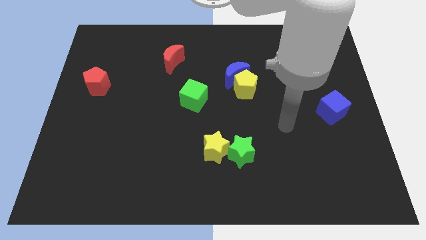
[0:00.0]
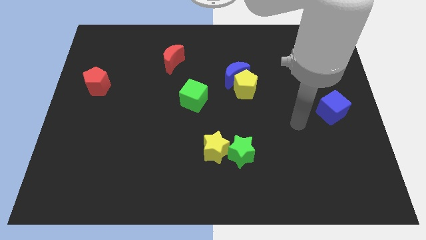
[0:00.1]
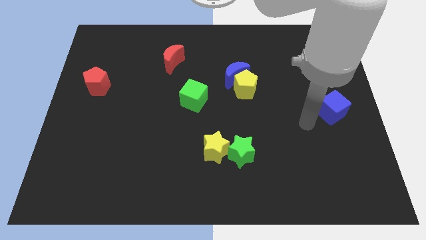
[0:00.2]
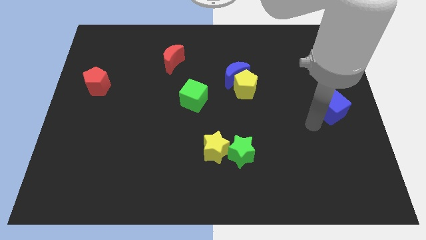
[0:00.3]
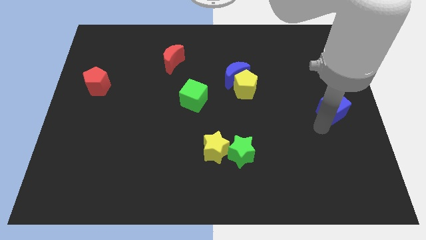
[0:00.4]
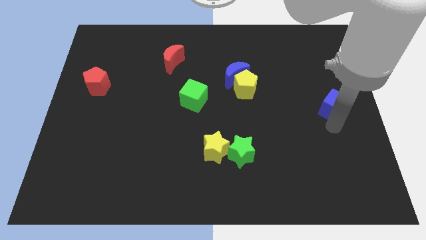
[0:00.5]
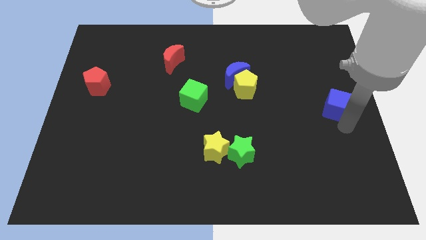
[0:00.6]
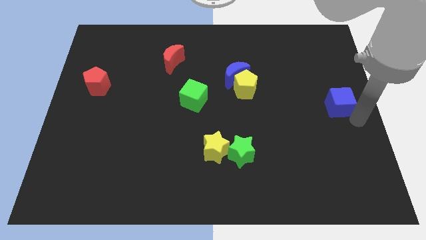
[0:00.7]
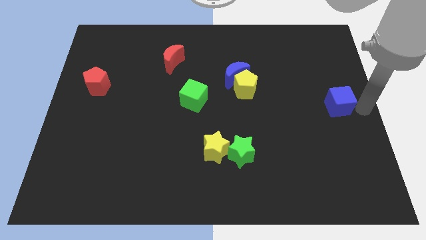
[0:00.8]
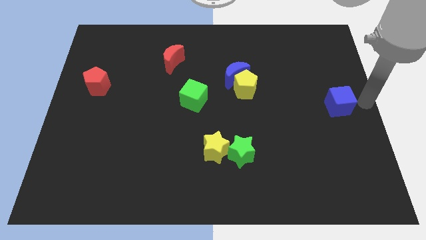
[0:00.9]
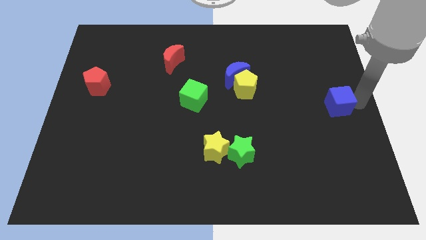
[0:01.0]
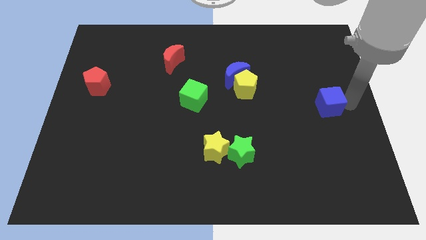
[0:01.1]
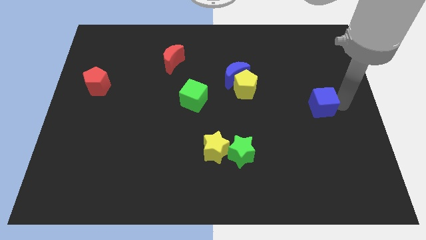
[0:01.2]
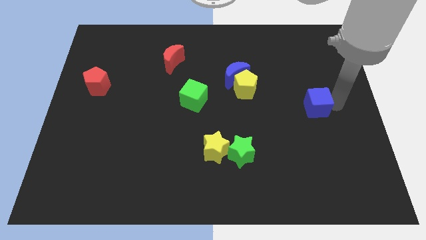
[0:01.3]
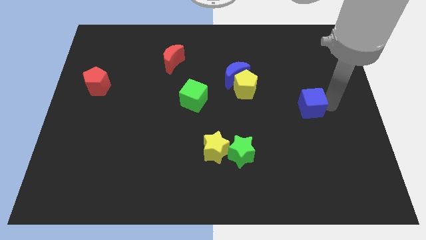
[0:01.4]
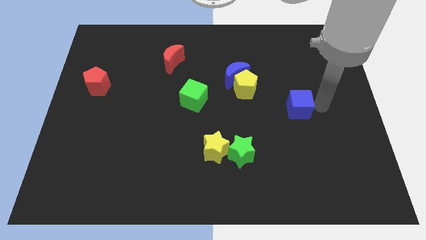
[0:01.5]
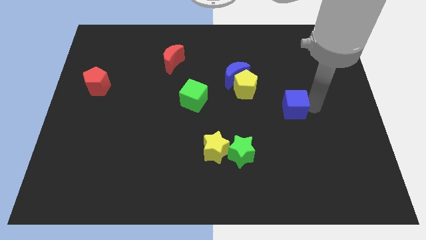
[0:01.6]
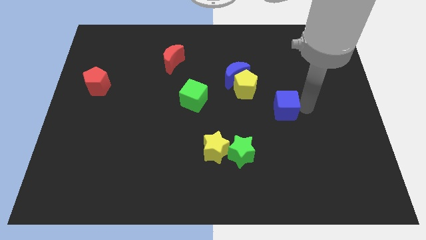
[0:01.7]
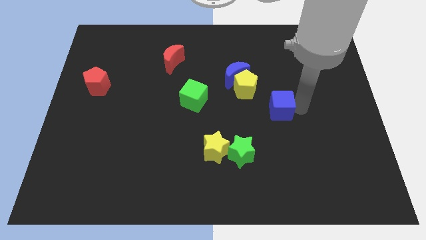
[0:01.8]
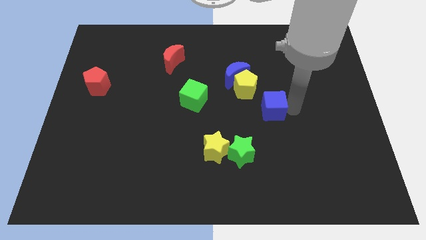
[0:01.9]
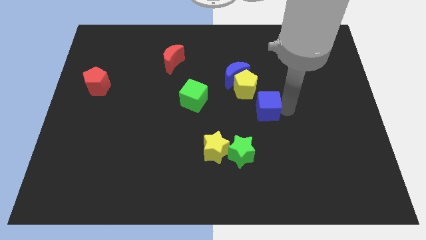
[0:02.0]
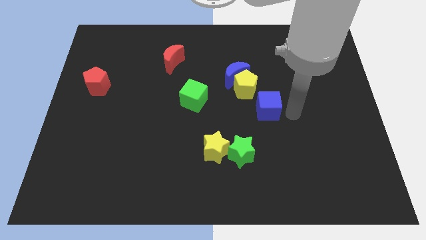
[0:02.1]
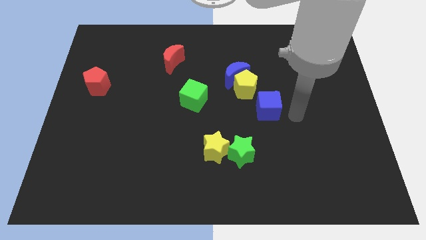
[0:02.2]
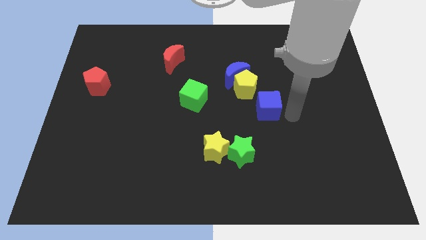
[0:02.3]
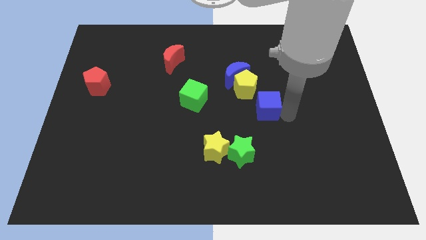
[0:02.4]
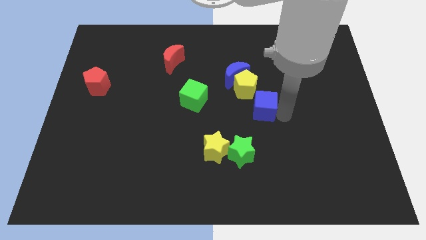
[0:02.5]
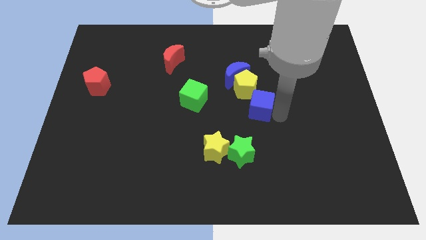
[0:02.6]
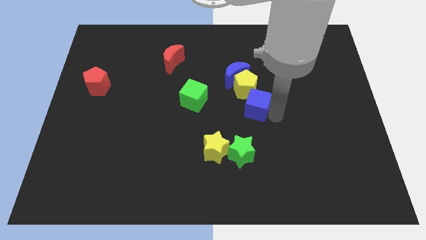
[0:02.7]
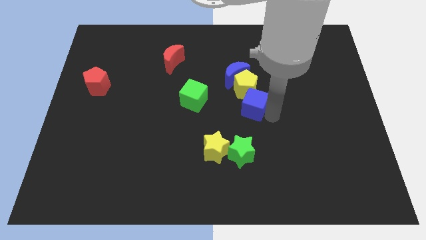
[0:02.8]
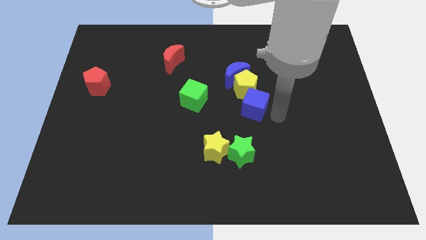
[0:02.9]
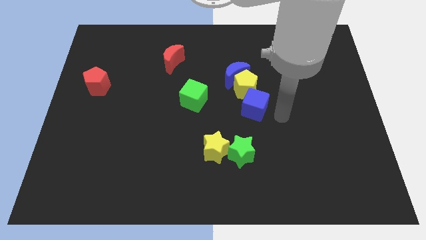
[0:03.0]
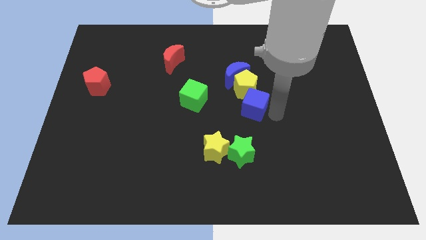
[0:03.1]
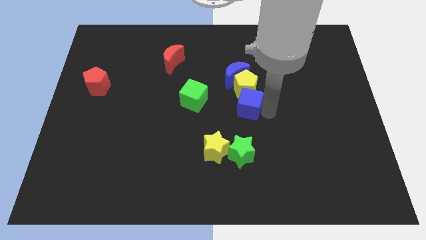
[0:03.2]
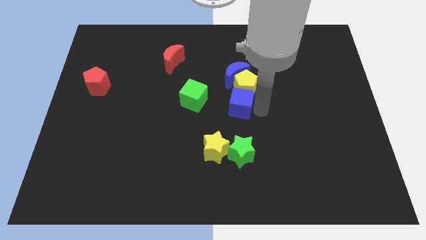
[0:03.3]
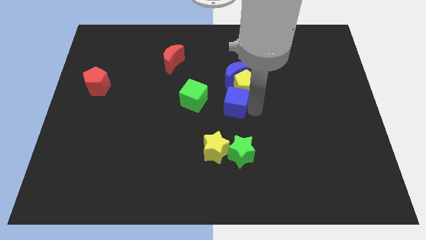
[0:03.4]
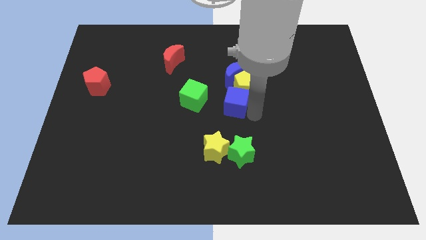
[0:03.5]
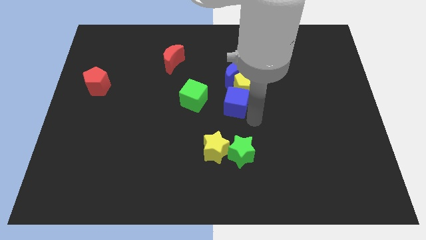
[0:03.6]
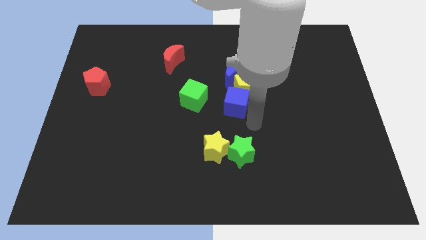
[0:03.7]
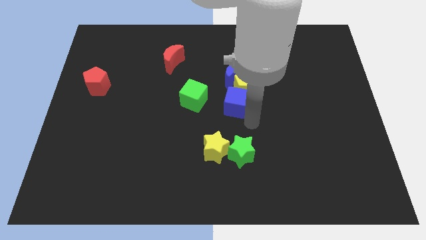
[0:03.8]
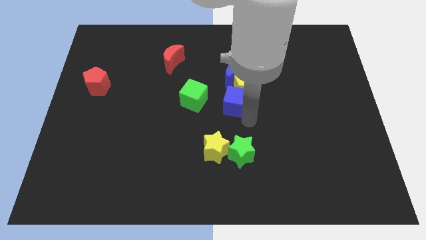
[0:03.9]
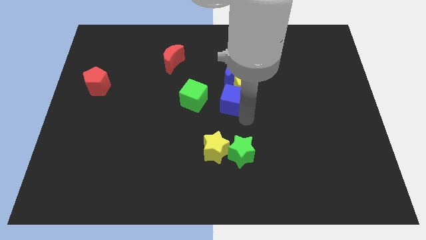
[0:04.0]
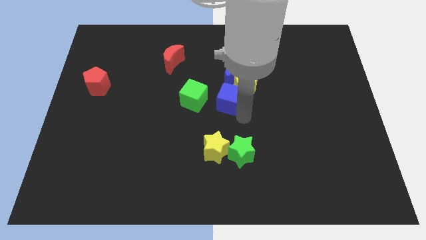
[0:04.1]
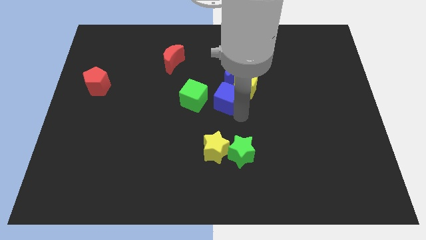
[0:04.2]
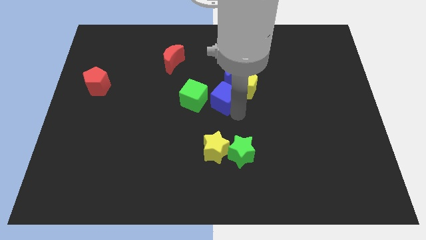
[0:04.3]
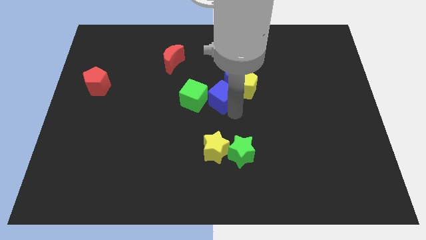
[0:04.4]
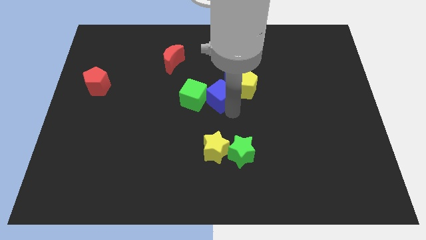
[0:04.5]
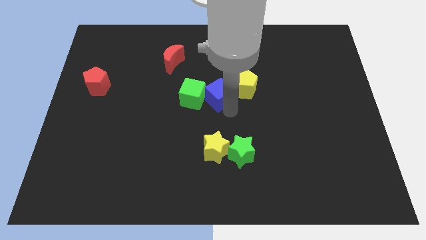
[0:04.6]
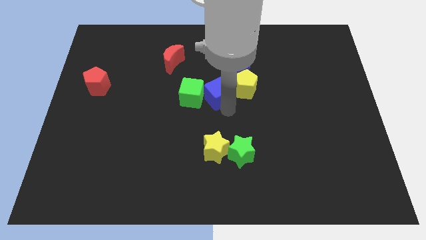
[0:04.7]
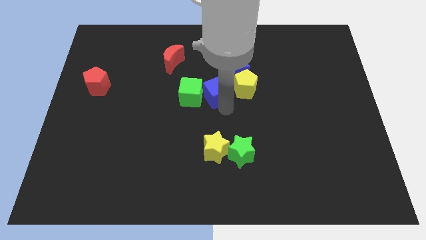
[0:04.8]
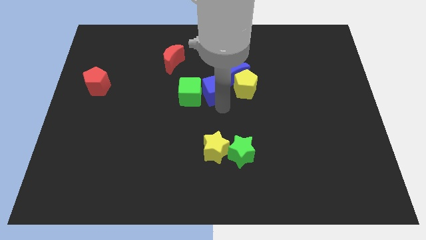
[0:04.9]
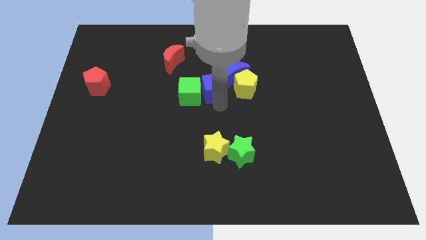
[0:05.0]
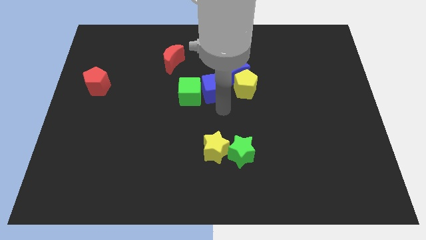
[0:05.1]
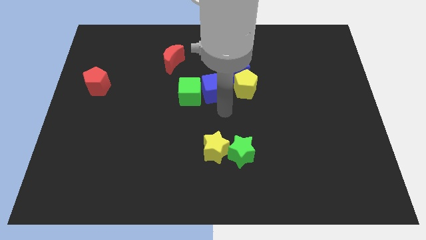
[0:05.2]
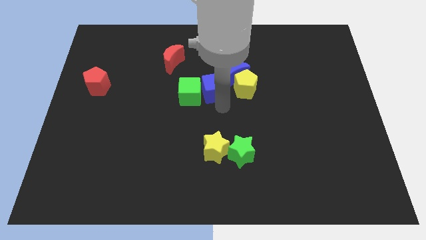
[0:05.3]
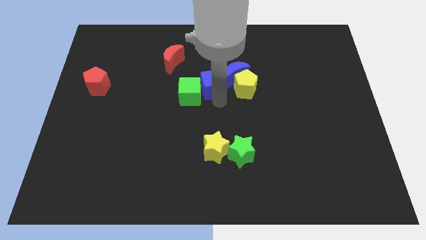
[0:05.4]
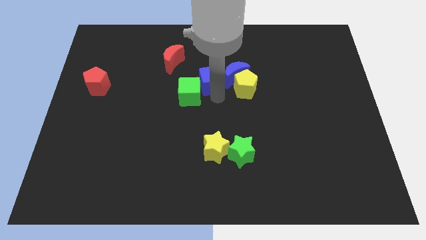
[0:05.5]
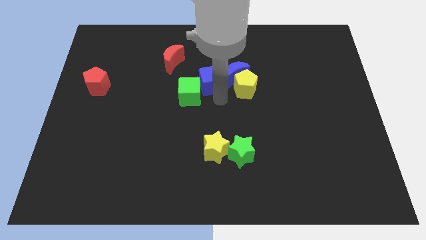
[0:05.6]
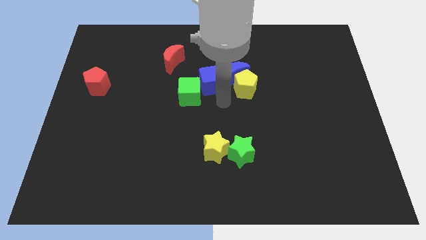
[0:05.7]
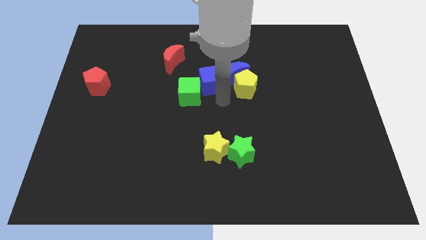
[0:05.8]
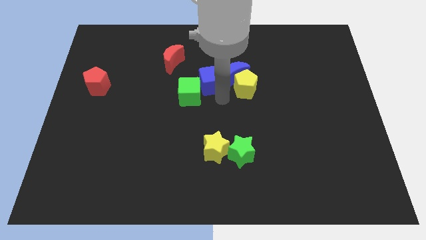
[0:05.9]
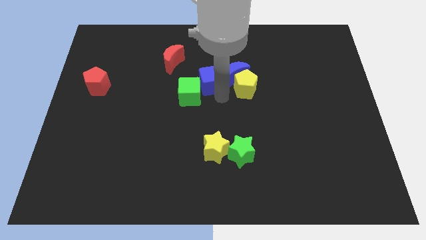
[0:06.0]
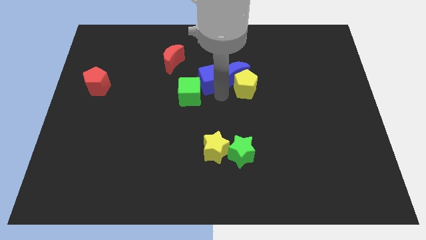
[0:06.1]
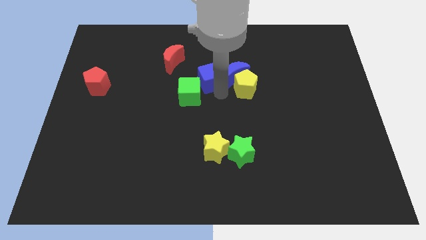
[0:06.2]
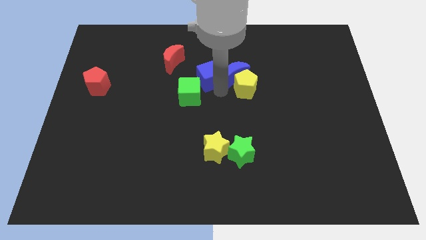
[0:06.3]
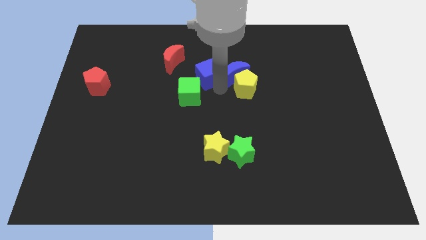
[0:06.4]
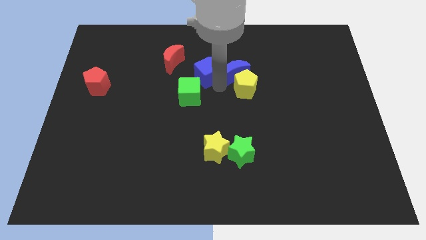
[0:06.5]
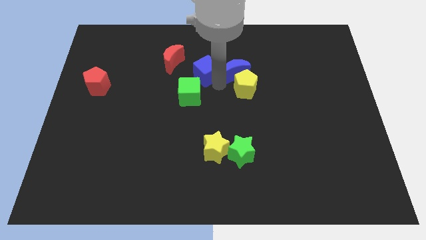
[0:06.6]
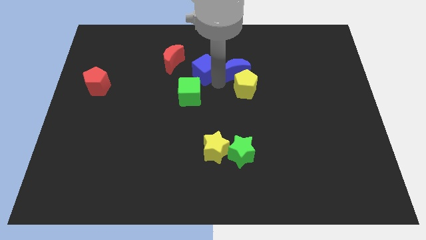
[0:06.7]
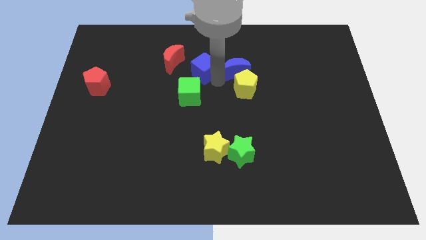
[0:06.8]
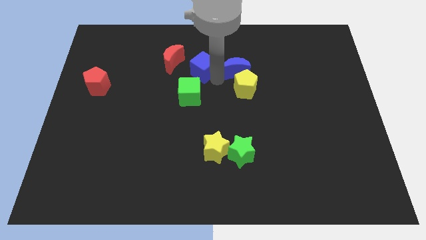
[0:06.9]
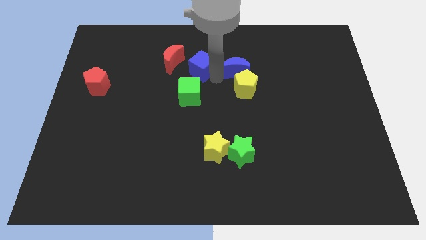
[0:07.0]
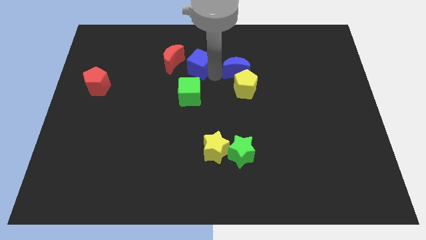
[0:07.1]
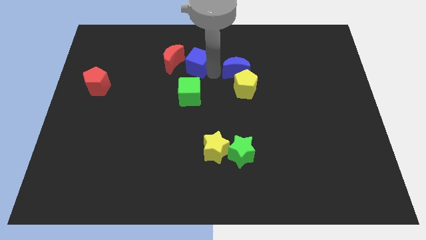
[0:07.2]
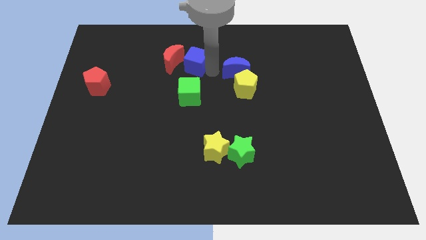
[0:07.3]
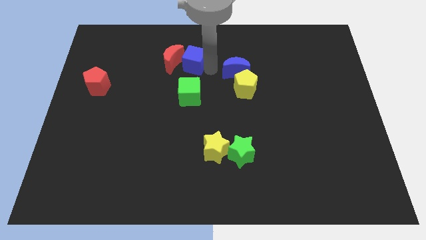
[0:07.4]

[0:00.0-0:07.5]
move the blue cube close to the red moon
